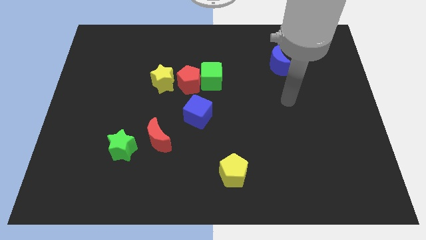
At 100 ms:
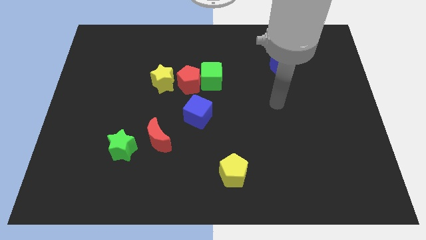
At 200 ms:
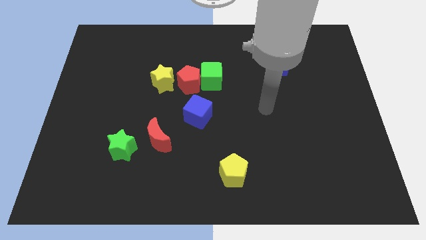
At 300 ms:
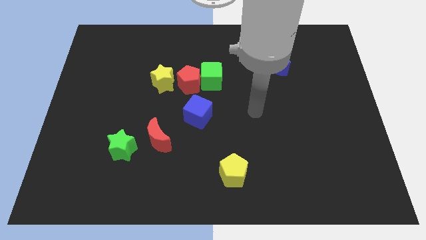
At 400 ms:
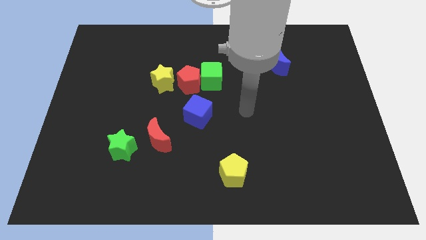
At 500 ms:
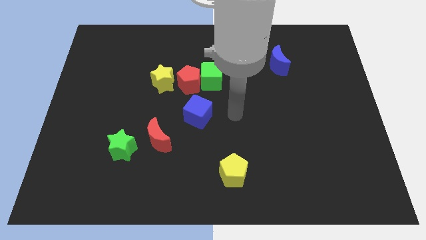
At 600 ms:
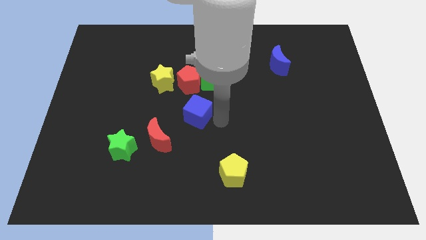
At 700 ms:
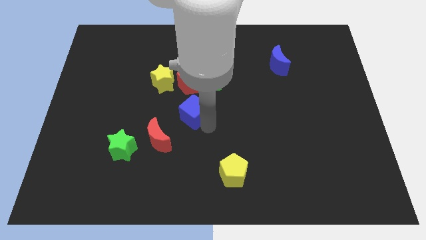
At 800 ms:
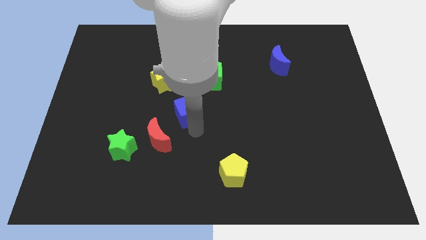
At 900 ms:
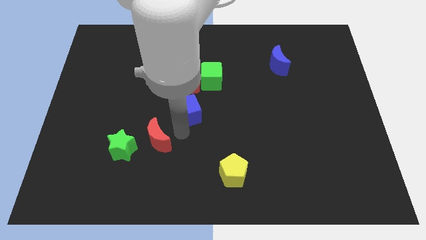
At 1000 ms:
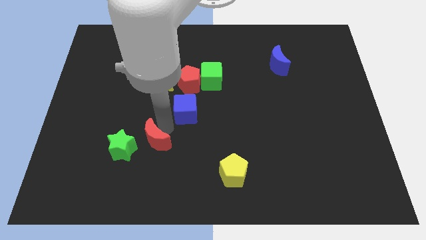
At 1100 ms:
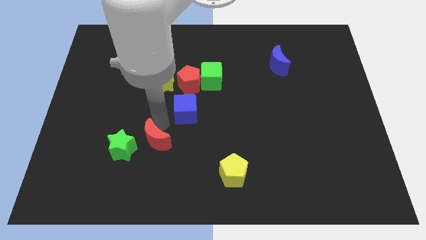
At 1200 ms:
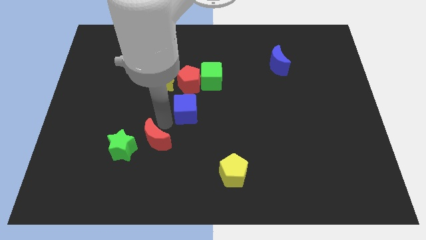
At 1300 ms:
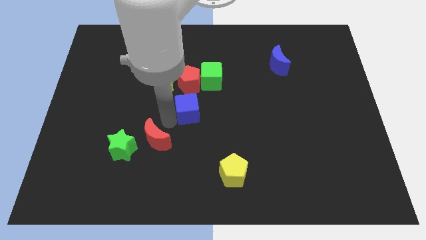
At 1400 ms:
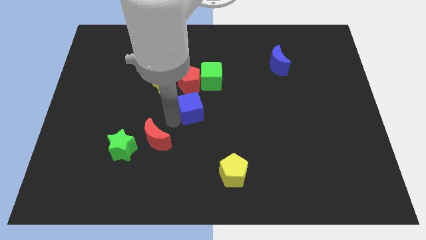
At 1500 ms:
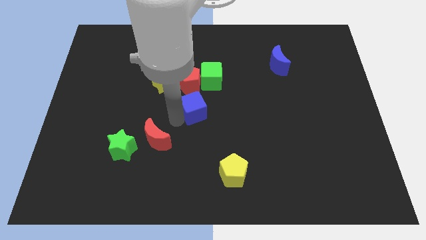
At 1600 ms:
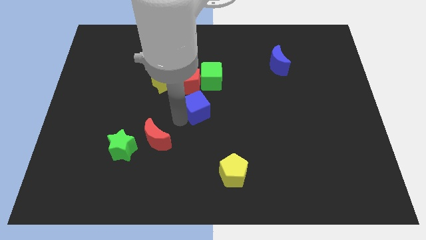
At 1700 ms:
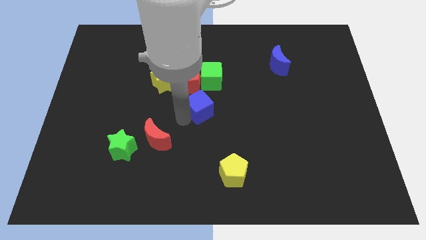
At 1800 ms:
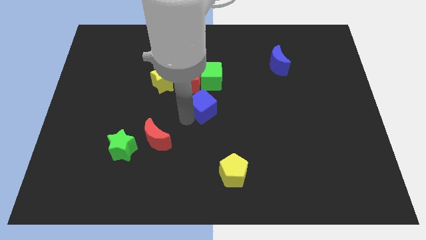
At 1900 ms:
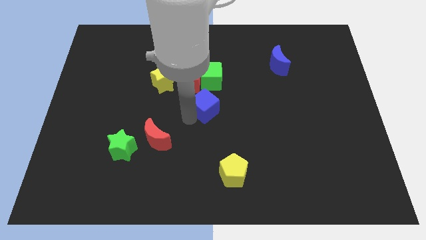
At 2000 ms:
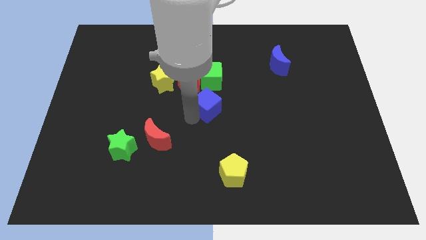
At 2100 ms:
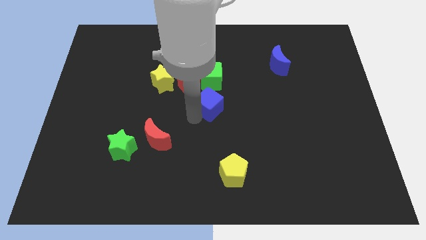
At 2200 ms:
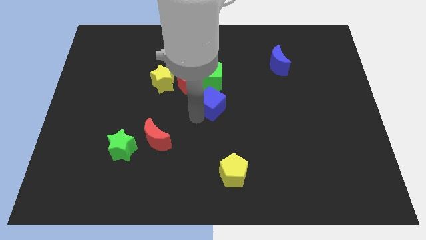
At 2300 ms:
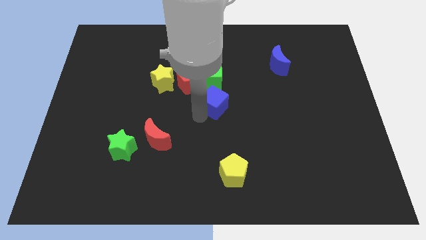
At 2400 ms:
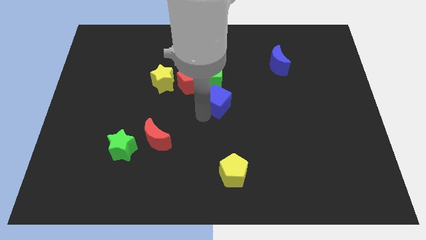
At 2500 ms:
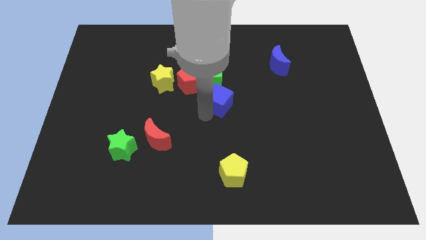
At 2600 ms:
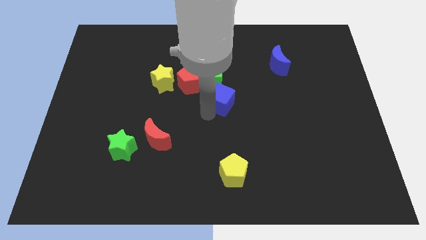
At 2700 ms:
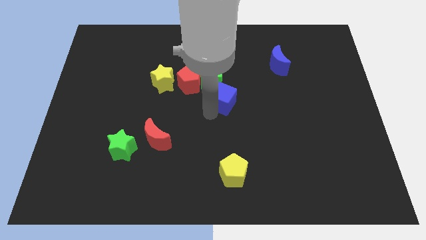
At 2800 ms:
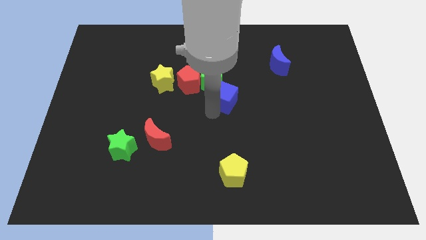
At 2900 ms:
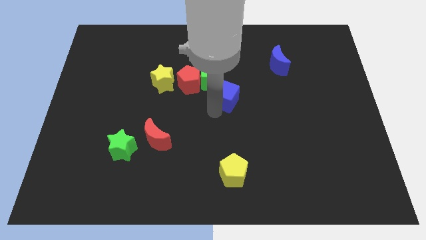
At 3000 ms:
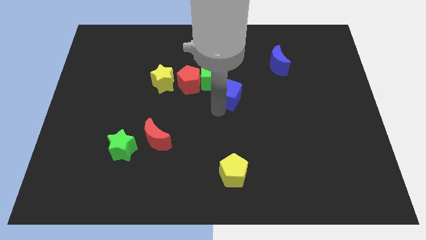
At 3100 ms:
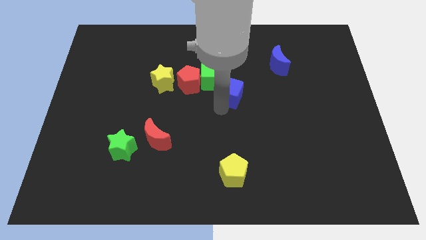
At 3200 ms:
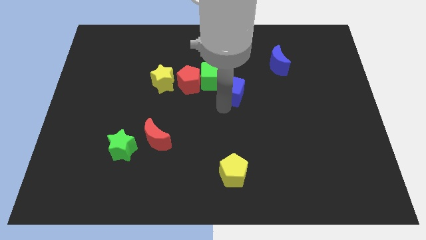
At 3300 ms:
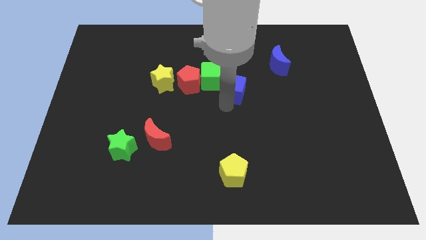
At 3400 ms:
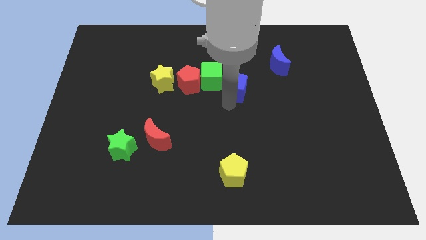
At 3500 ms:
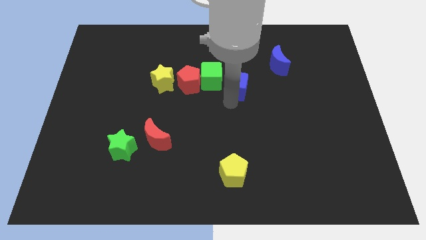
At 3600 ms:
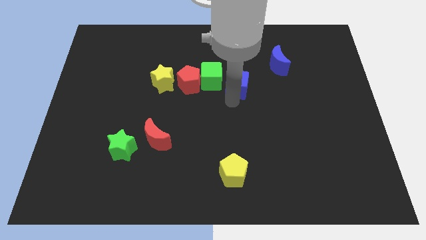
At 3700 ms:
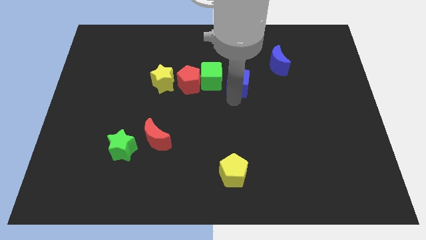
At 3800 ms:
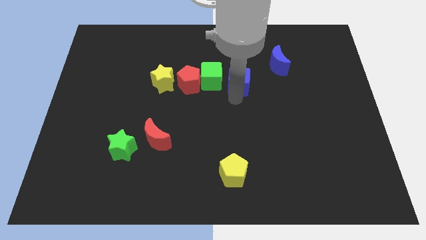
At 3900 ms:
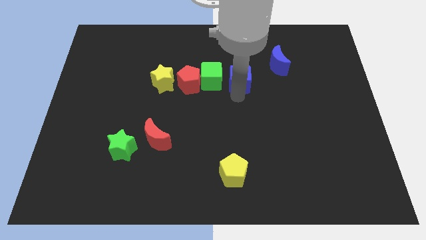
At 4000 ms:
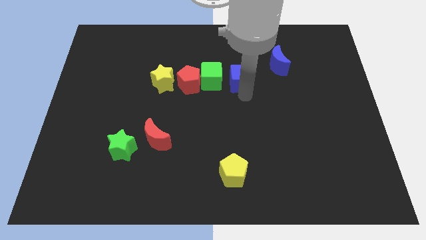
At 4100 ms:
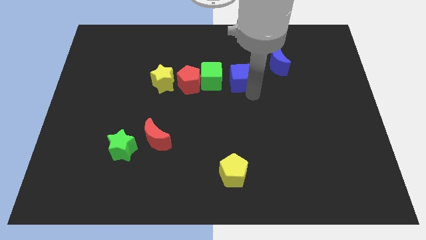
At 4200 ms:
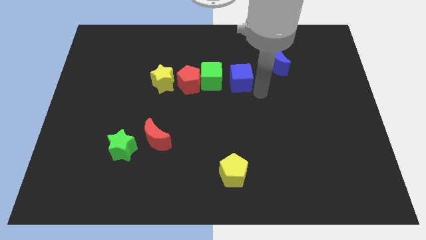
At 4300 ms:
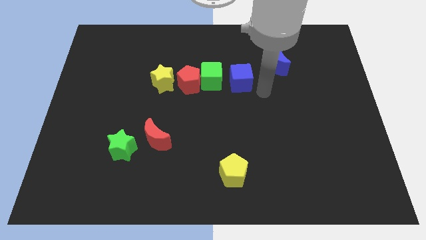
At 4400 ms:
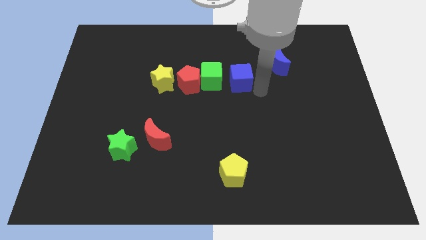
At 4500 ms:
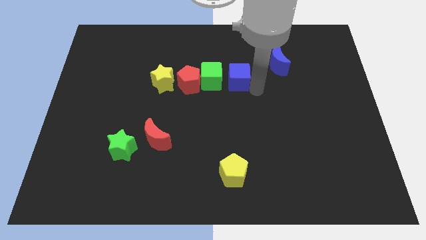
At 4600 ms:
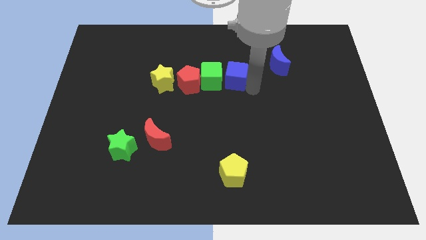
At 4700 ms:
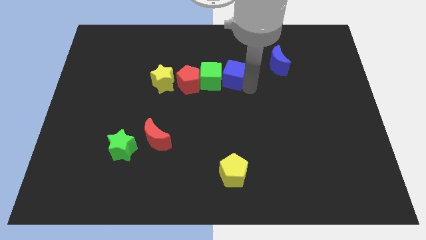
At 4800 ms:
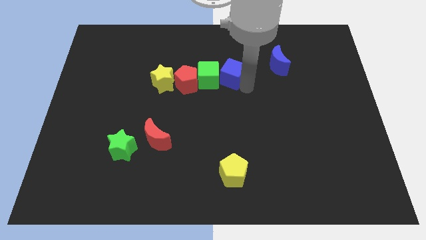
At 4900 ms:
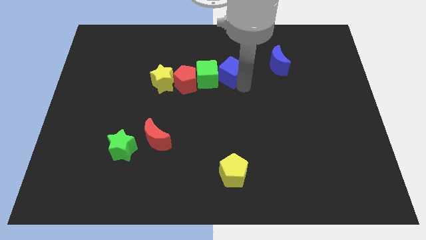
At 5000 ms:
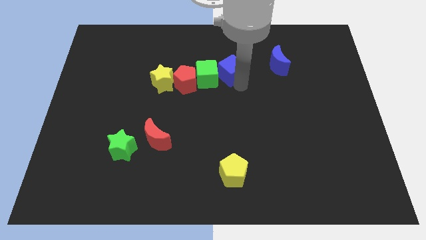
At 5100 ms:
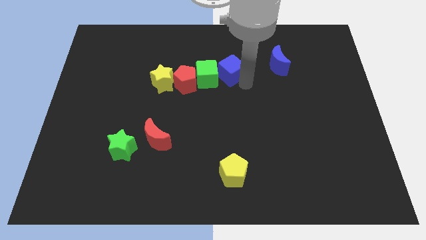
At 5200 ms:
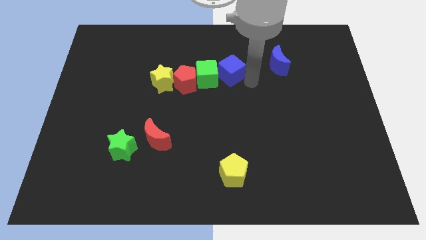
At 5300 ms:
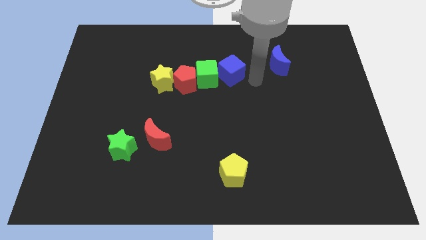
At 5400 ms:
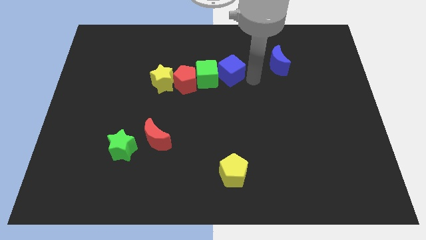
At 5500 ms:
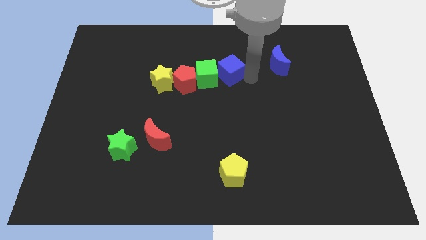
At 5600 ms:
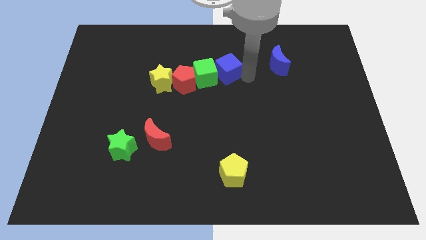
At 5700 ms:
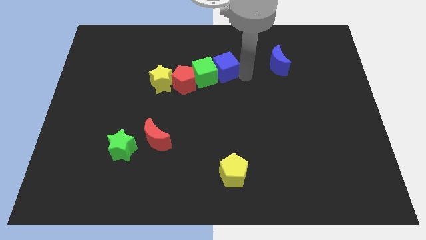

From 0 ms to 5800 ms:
push the blue cube diagonally up and to the right of the red pentagon

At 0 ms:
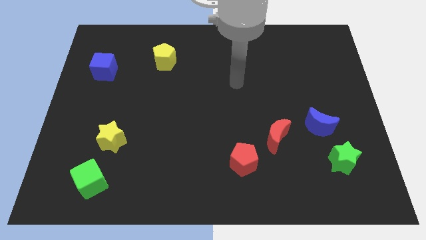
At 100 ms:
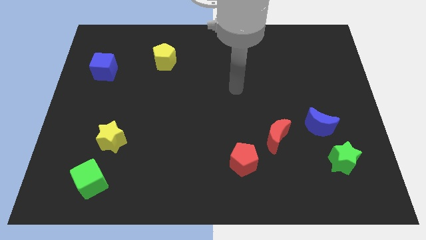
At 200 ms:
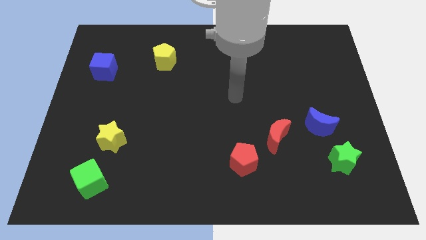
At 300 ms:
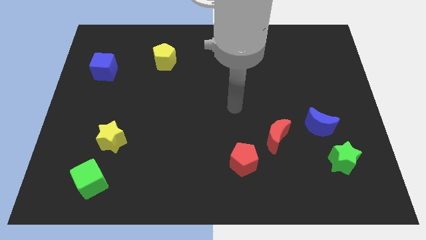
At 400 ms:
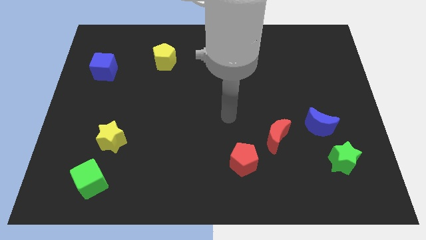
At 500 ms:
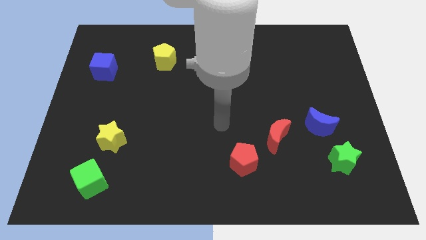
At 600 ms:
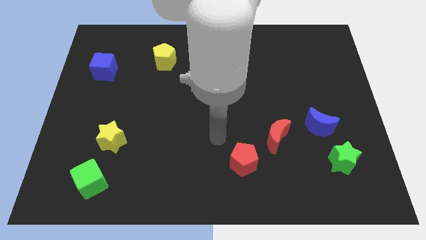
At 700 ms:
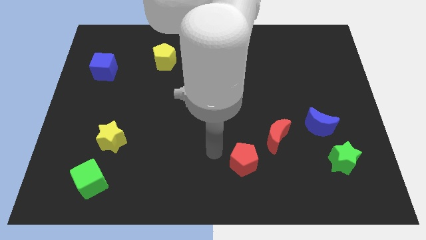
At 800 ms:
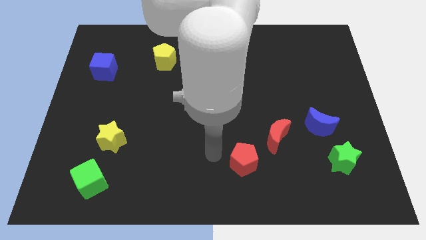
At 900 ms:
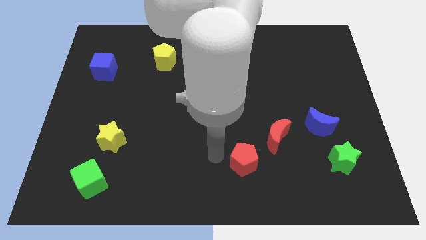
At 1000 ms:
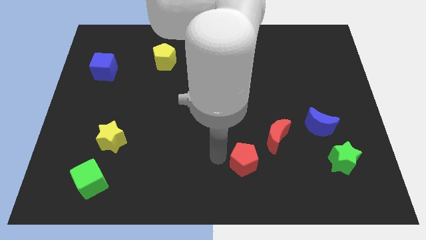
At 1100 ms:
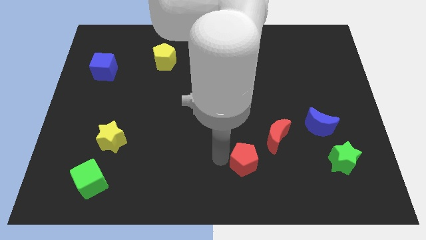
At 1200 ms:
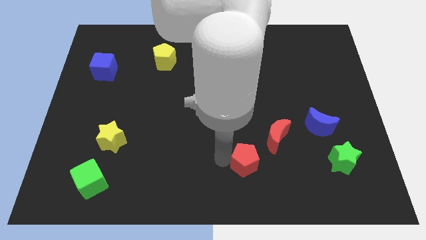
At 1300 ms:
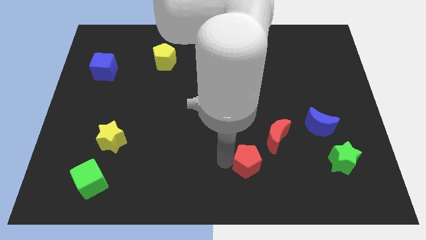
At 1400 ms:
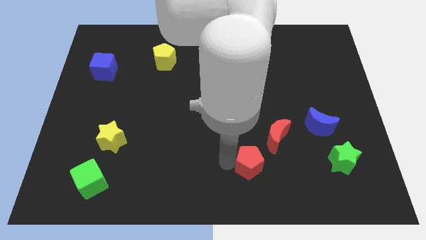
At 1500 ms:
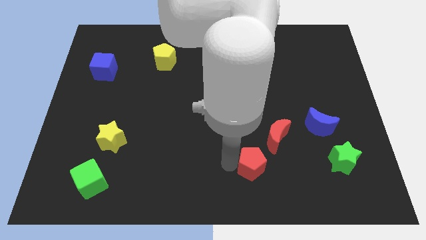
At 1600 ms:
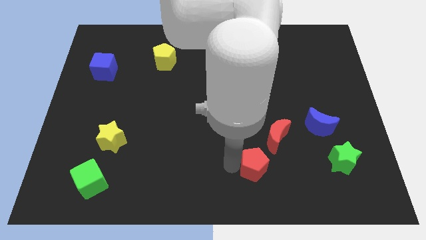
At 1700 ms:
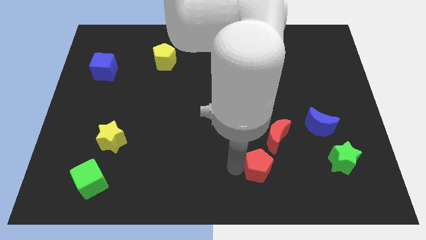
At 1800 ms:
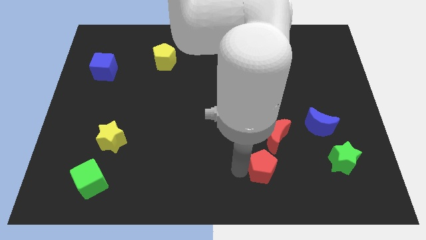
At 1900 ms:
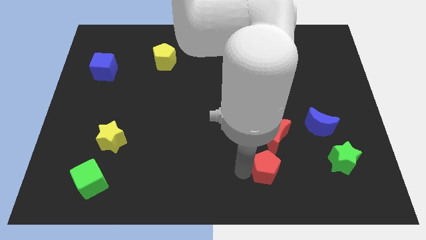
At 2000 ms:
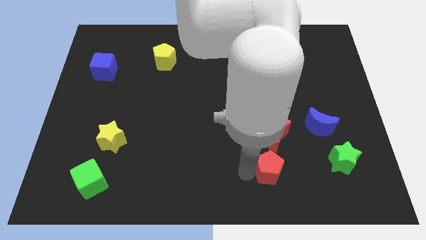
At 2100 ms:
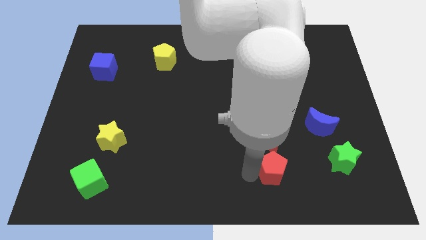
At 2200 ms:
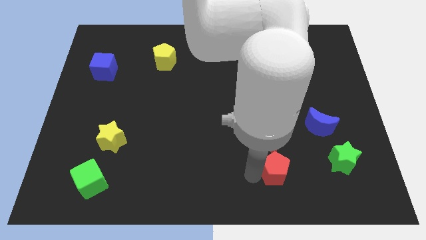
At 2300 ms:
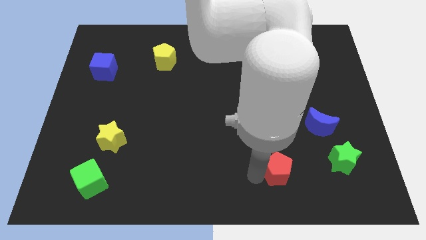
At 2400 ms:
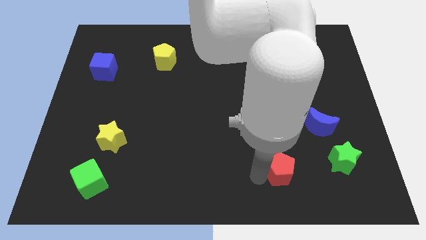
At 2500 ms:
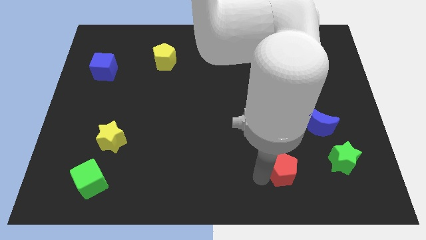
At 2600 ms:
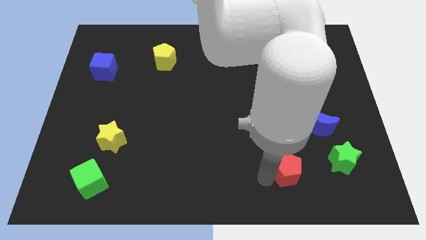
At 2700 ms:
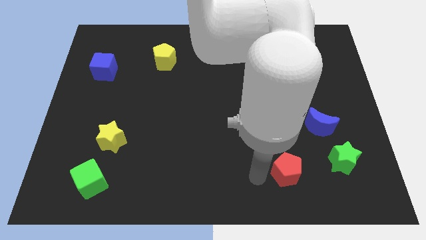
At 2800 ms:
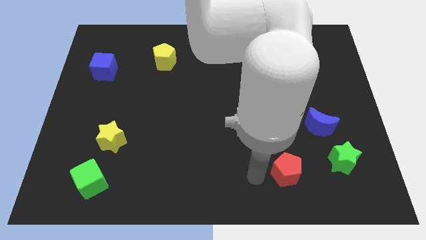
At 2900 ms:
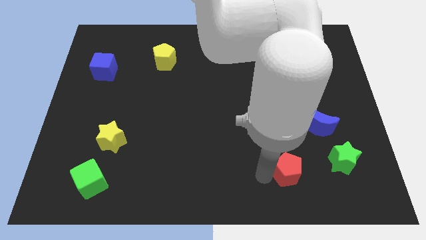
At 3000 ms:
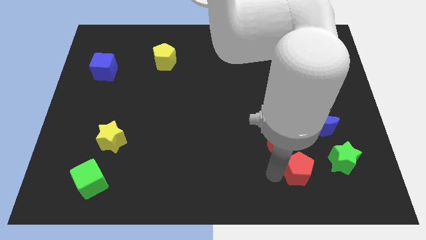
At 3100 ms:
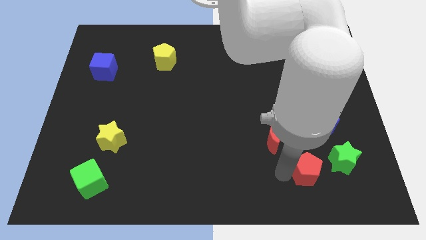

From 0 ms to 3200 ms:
move the red pentagon below the blue moon
